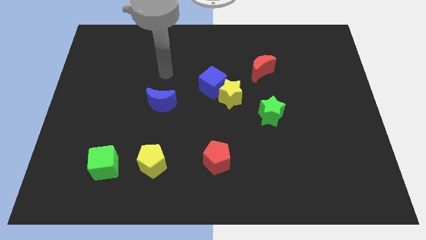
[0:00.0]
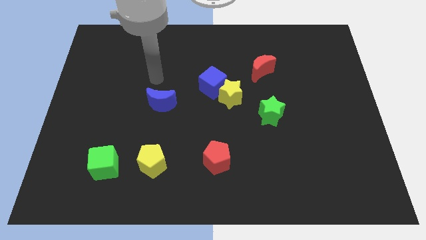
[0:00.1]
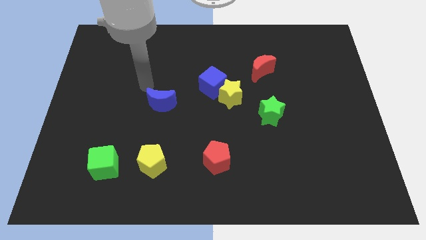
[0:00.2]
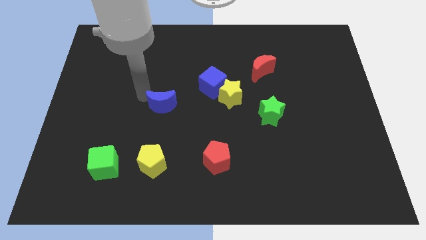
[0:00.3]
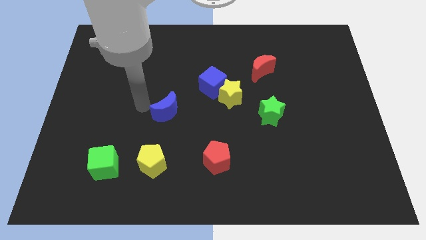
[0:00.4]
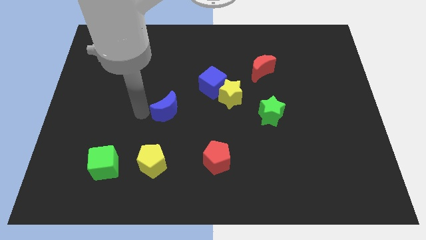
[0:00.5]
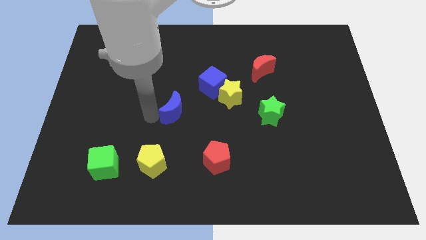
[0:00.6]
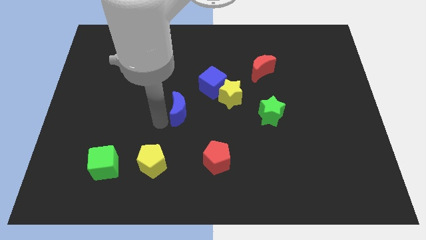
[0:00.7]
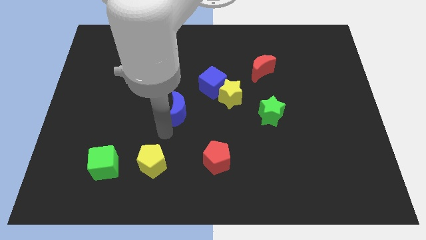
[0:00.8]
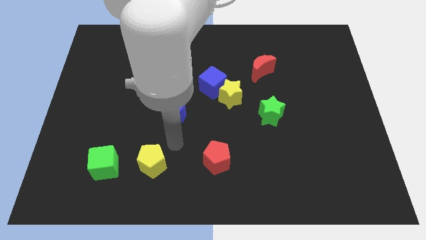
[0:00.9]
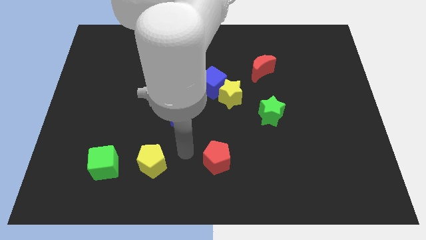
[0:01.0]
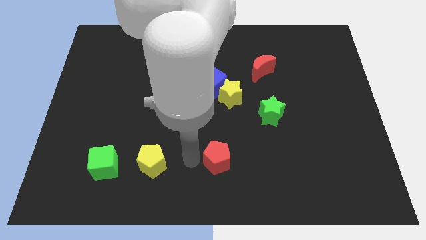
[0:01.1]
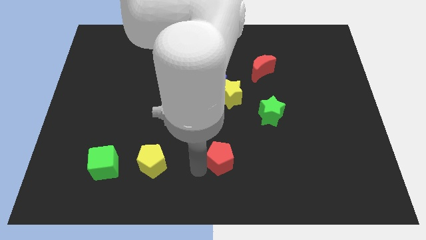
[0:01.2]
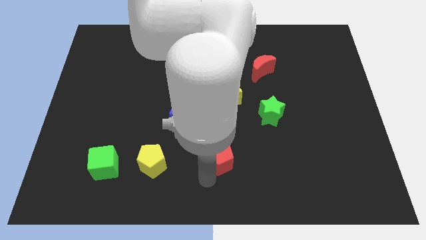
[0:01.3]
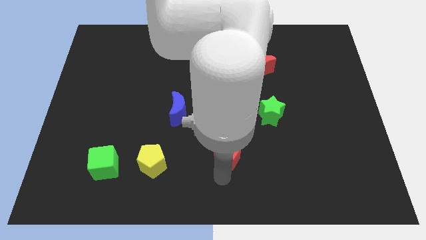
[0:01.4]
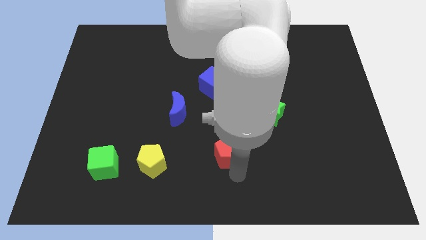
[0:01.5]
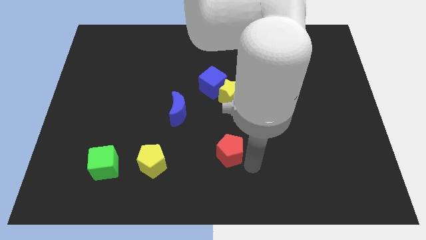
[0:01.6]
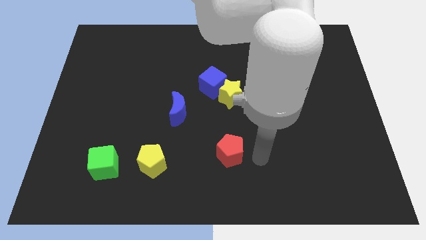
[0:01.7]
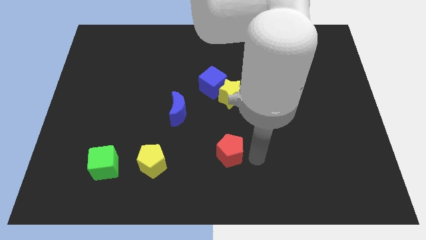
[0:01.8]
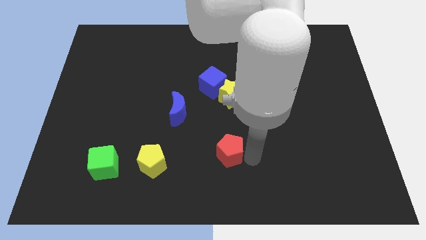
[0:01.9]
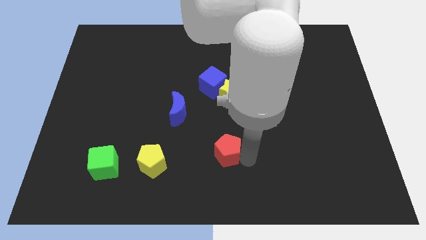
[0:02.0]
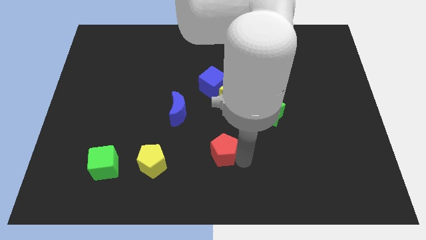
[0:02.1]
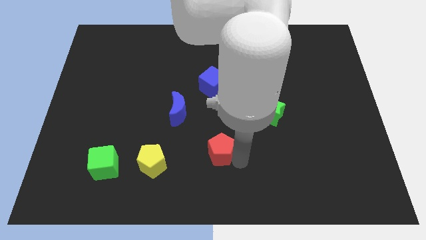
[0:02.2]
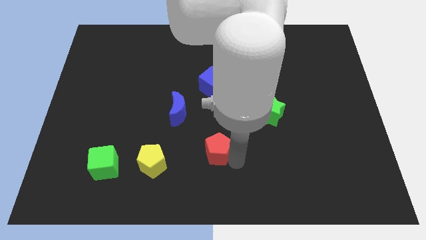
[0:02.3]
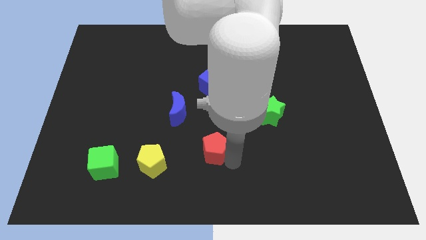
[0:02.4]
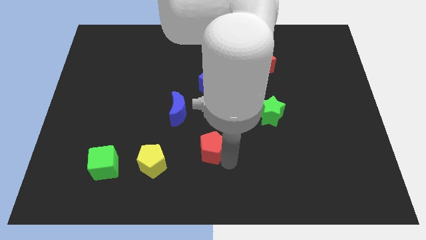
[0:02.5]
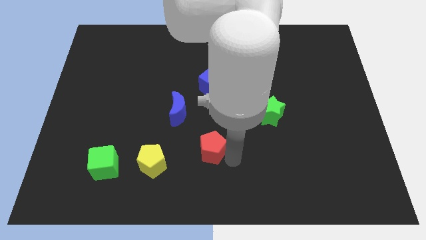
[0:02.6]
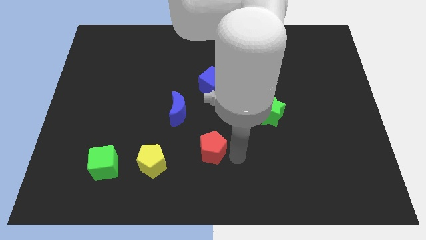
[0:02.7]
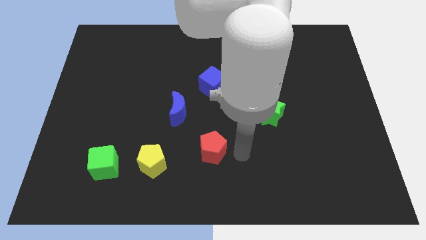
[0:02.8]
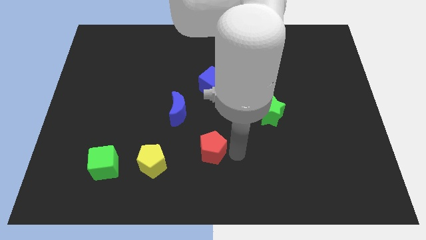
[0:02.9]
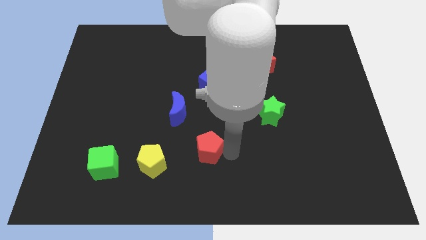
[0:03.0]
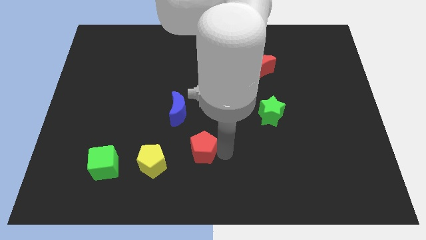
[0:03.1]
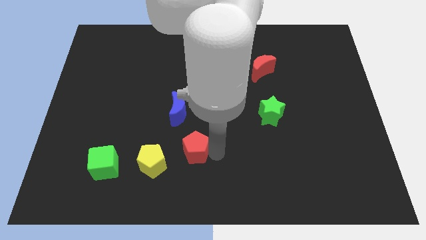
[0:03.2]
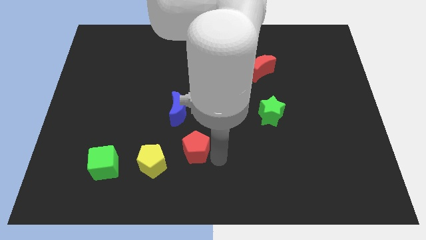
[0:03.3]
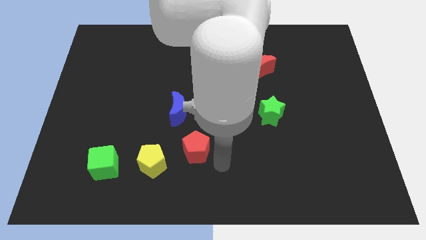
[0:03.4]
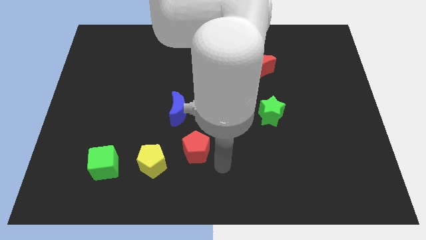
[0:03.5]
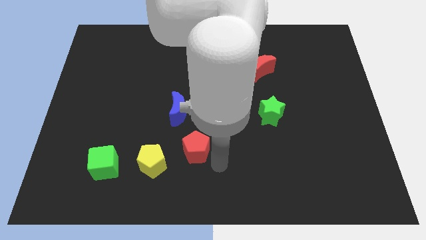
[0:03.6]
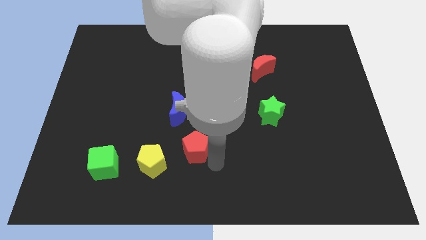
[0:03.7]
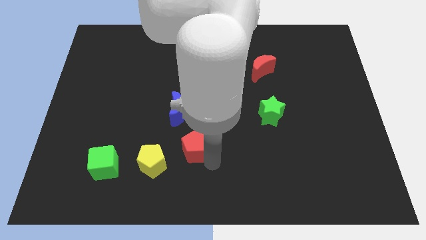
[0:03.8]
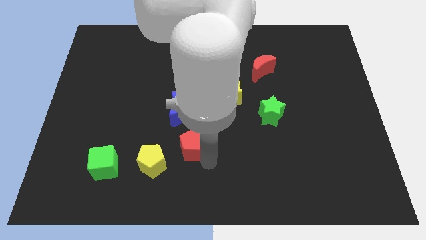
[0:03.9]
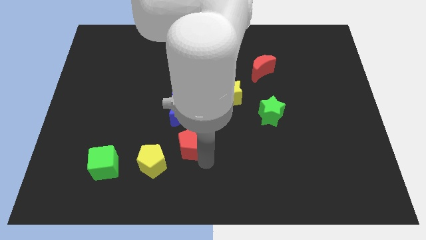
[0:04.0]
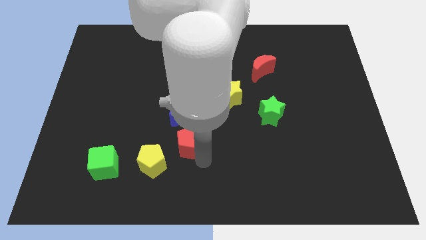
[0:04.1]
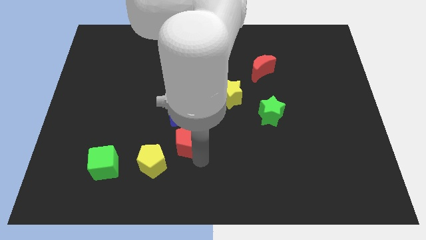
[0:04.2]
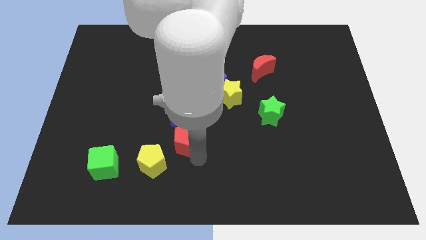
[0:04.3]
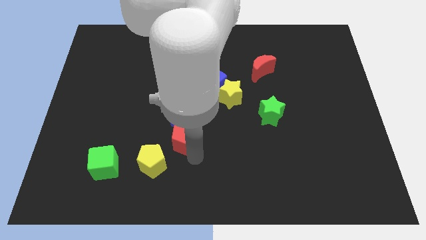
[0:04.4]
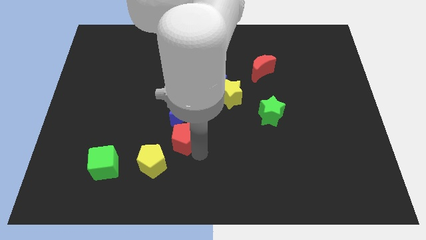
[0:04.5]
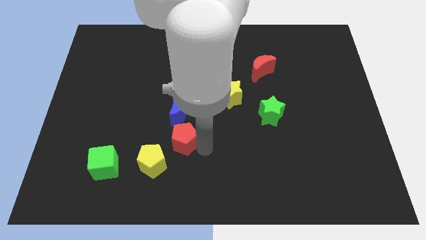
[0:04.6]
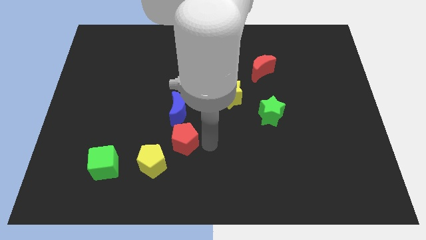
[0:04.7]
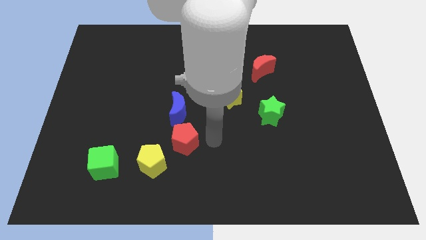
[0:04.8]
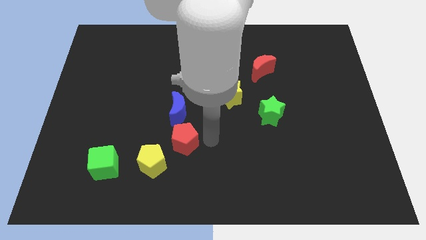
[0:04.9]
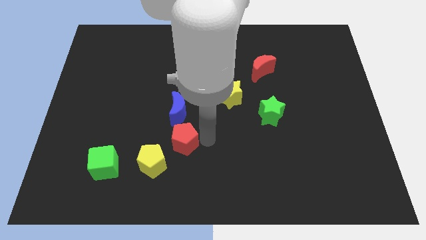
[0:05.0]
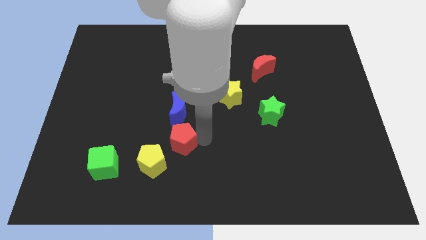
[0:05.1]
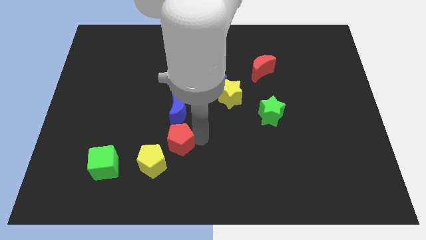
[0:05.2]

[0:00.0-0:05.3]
slide the red pentagon left slightly

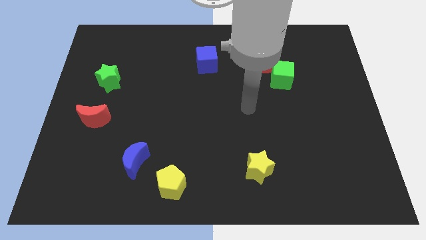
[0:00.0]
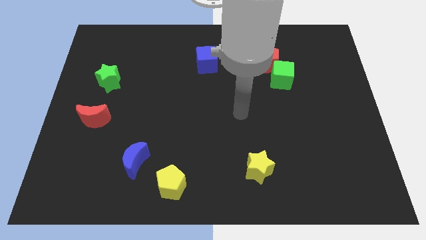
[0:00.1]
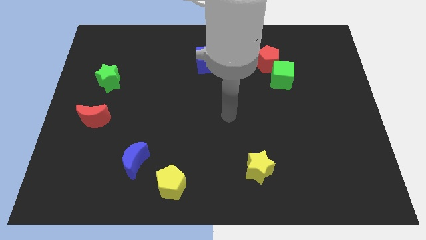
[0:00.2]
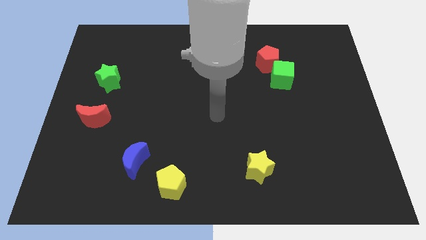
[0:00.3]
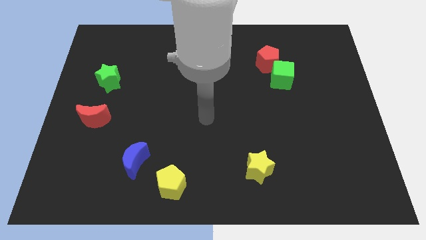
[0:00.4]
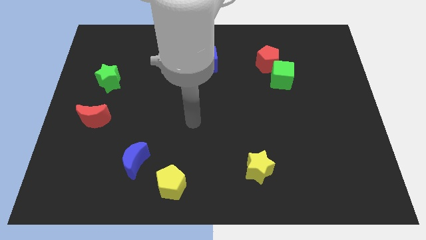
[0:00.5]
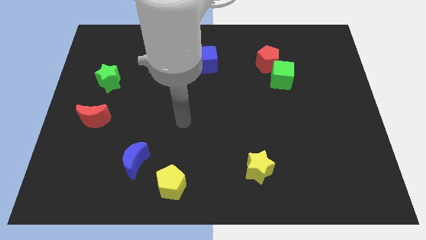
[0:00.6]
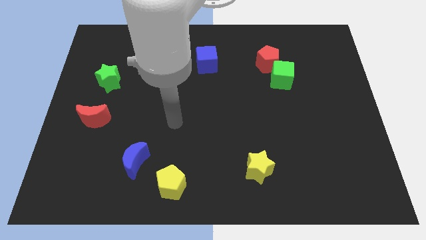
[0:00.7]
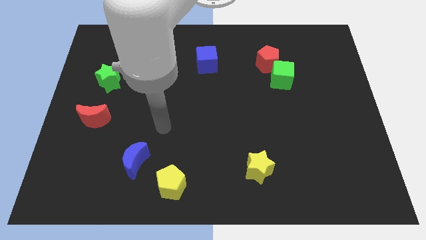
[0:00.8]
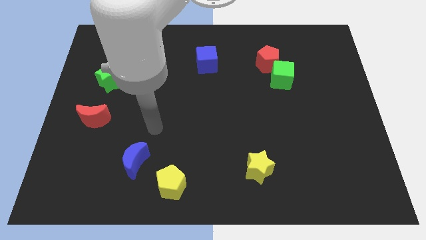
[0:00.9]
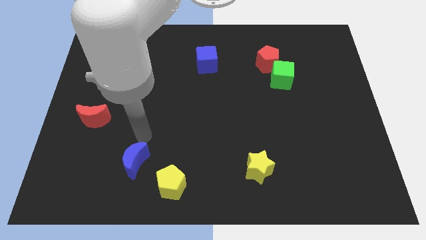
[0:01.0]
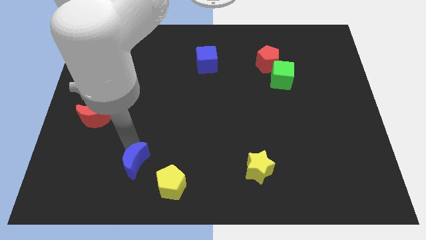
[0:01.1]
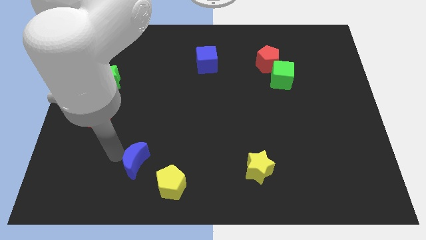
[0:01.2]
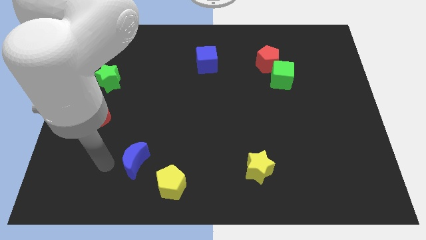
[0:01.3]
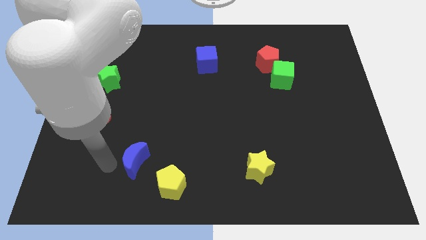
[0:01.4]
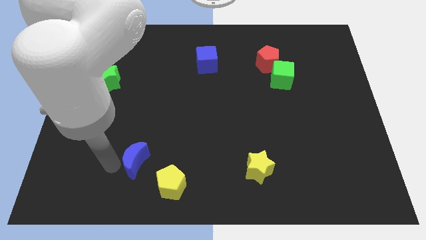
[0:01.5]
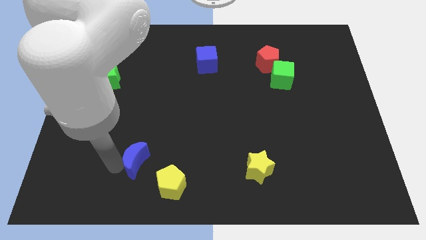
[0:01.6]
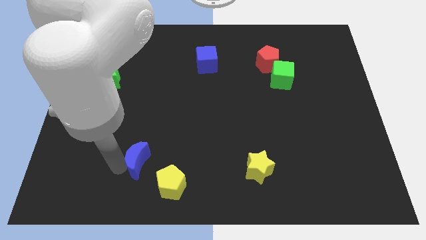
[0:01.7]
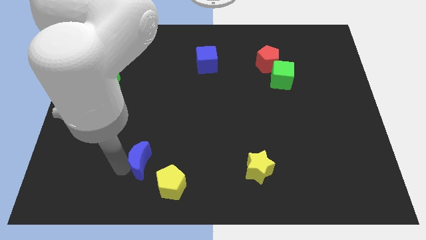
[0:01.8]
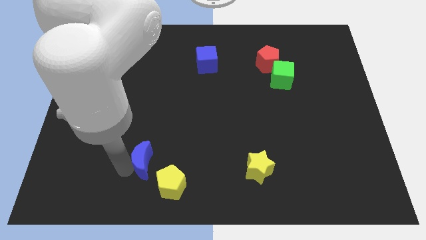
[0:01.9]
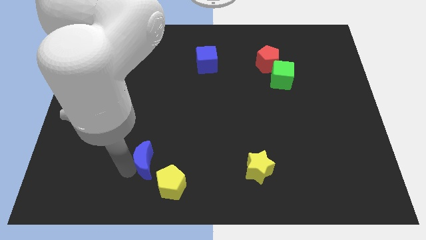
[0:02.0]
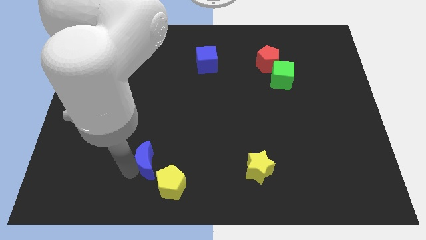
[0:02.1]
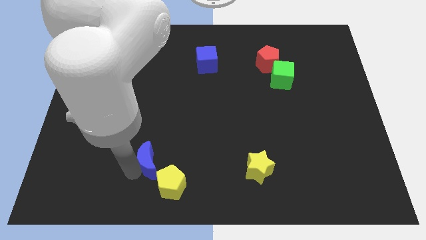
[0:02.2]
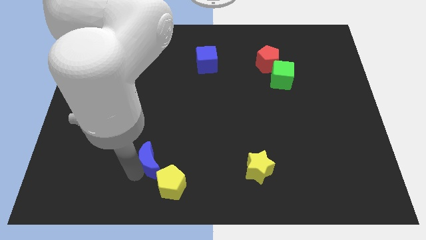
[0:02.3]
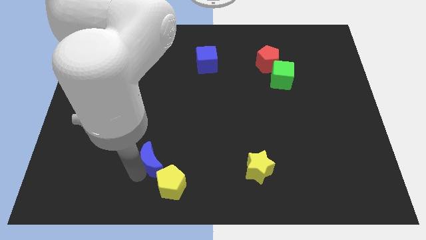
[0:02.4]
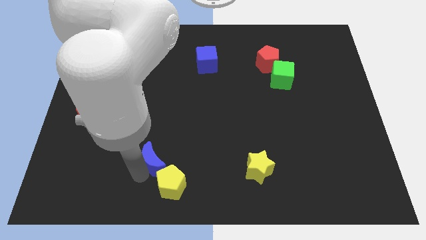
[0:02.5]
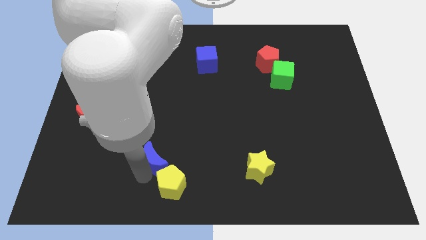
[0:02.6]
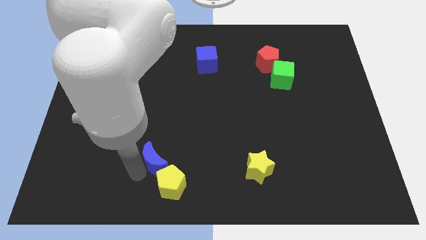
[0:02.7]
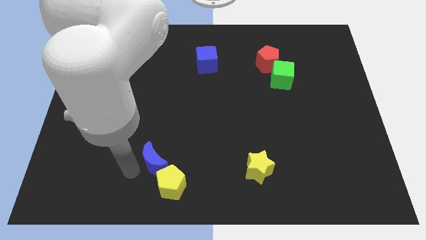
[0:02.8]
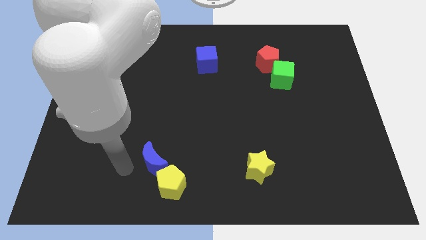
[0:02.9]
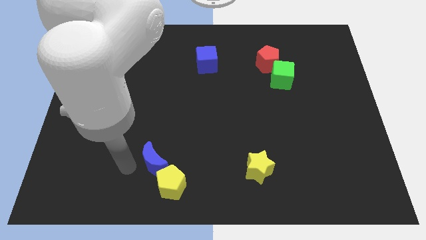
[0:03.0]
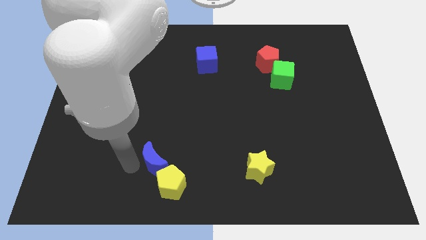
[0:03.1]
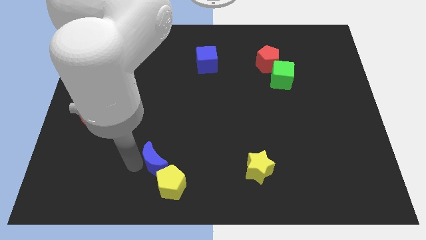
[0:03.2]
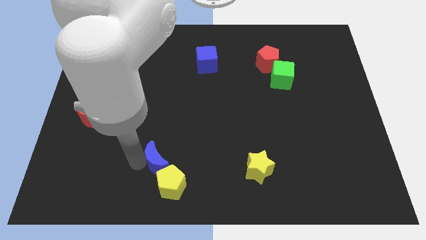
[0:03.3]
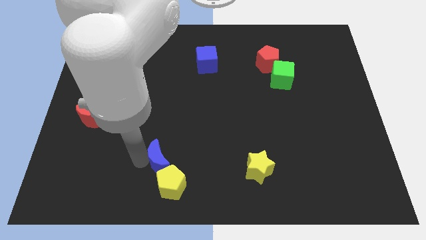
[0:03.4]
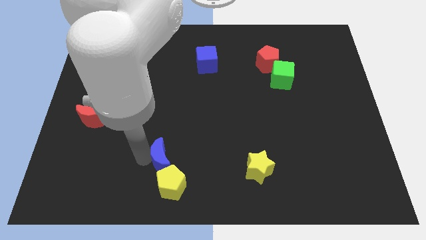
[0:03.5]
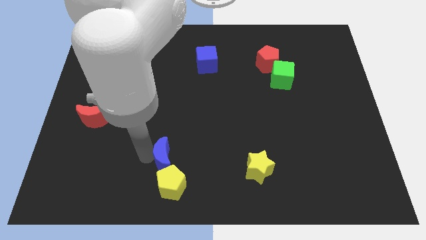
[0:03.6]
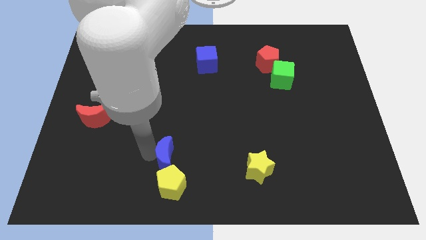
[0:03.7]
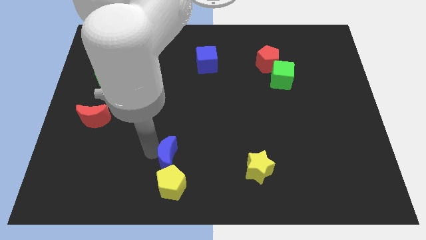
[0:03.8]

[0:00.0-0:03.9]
slide the blue moon right a little bit
